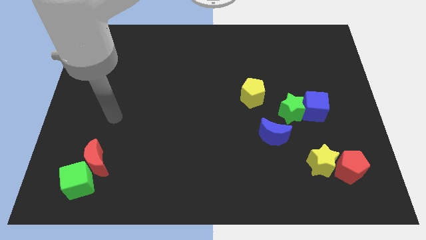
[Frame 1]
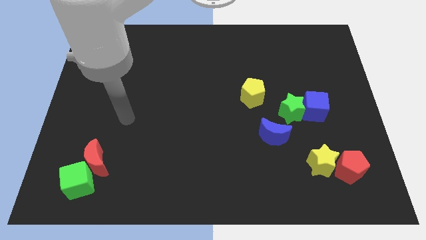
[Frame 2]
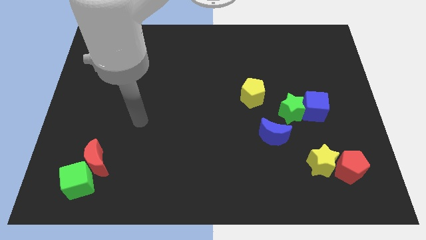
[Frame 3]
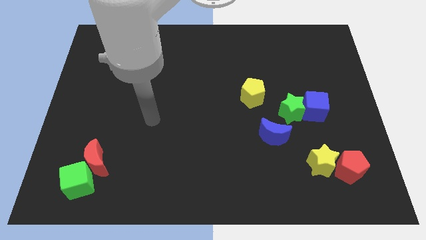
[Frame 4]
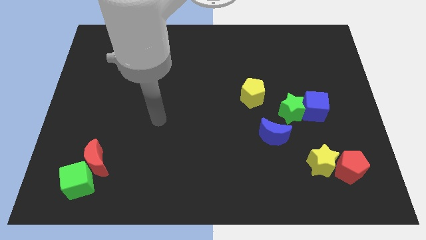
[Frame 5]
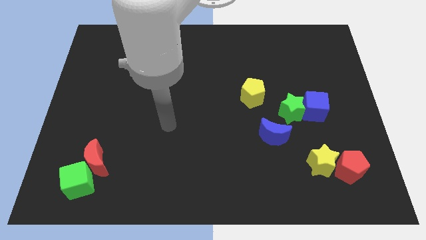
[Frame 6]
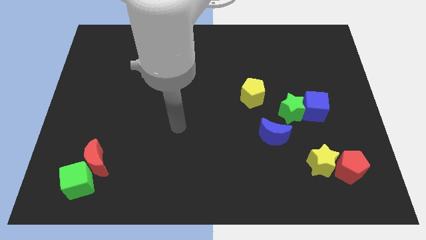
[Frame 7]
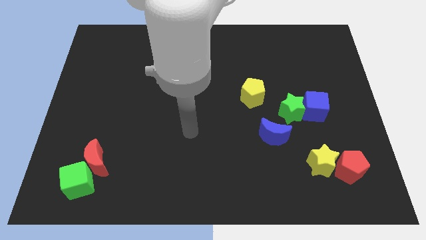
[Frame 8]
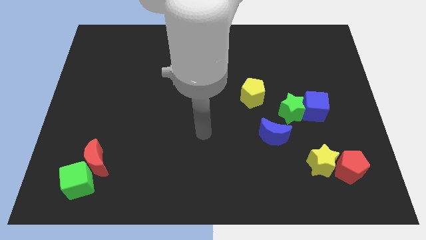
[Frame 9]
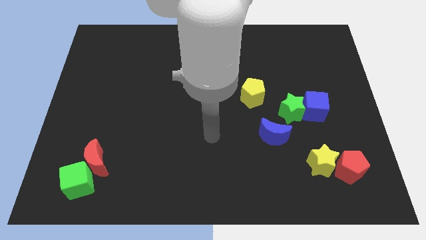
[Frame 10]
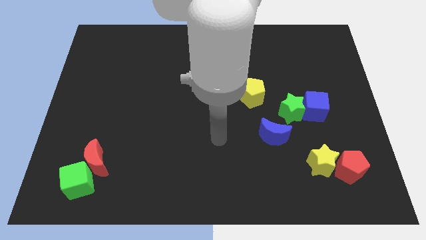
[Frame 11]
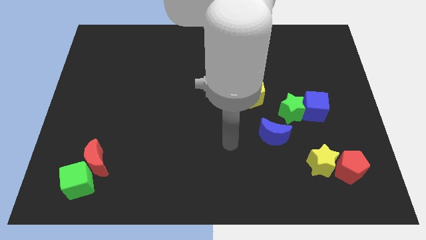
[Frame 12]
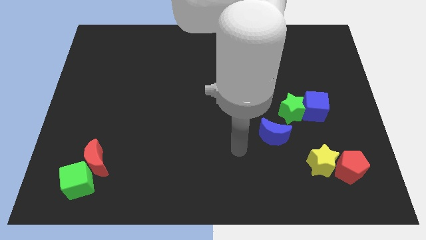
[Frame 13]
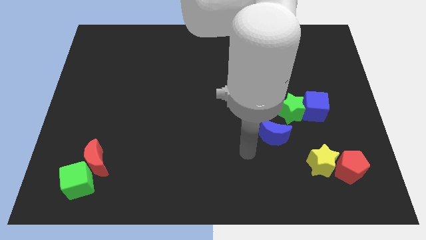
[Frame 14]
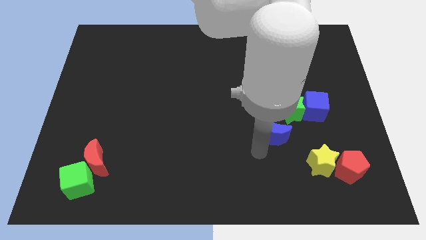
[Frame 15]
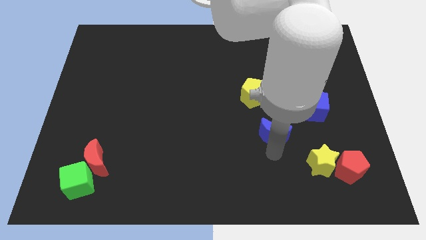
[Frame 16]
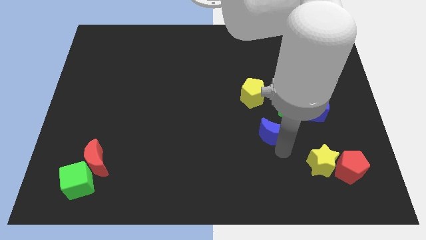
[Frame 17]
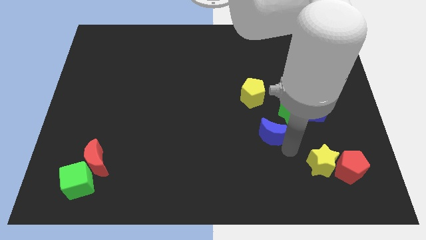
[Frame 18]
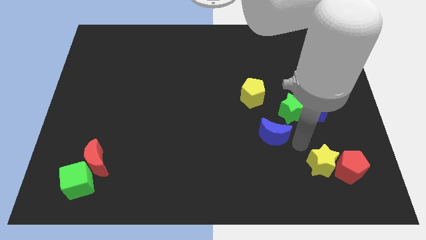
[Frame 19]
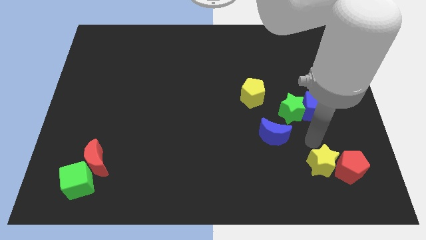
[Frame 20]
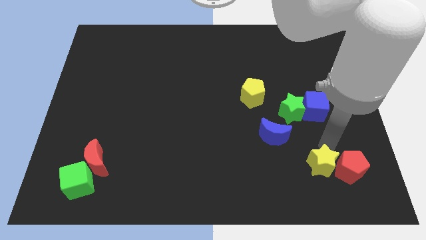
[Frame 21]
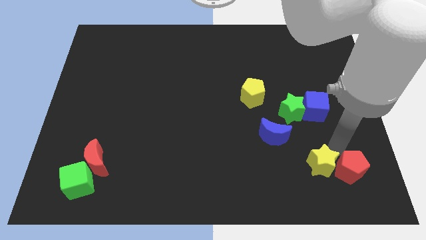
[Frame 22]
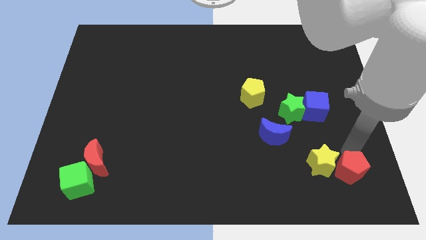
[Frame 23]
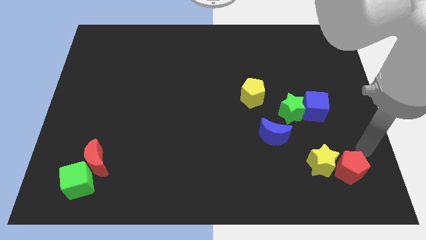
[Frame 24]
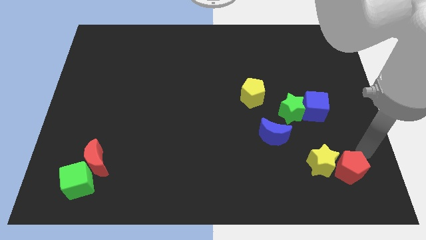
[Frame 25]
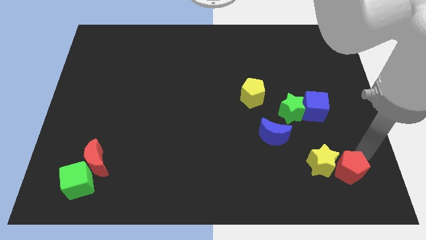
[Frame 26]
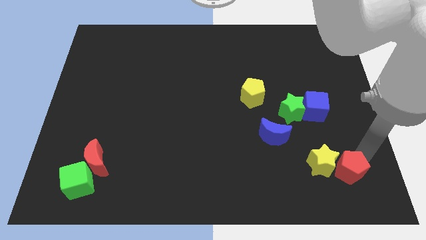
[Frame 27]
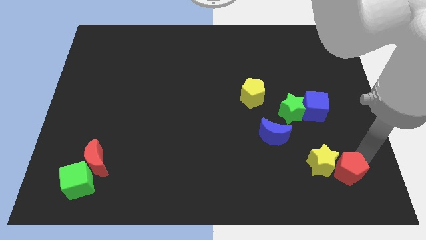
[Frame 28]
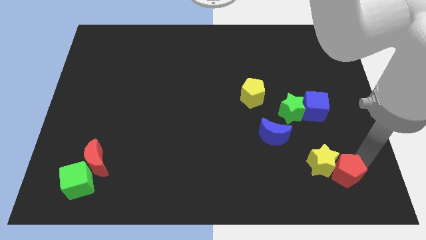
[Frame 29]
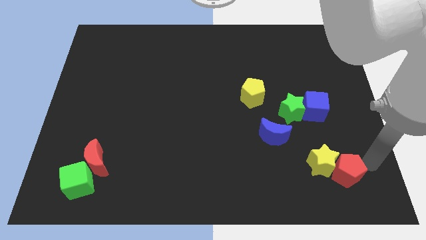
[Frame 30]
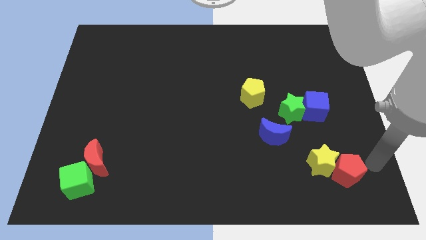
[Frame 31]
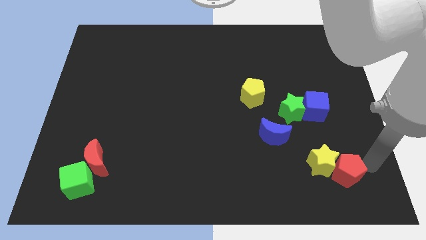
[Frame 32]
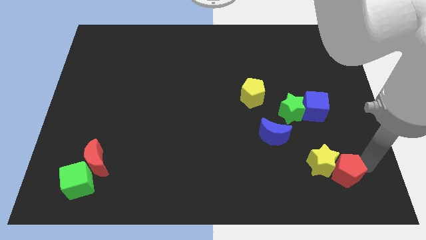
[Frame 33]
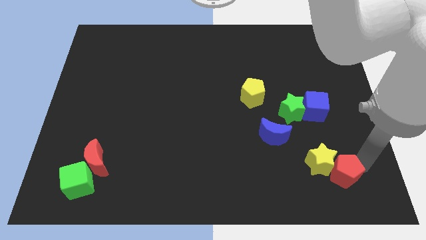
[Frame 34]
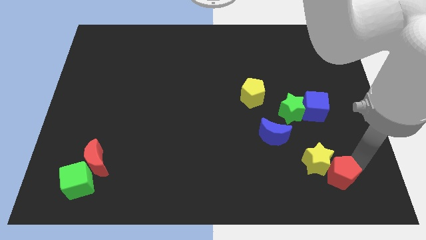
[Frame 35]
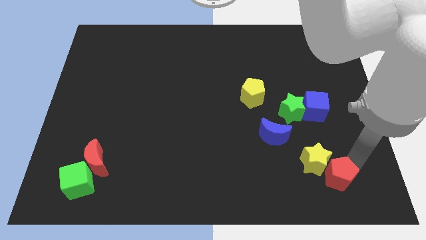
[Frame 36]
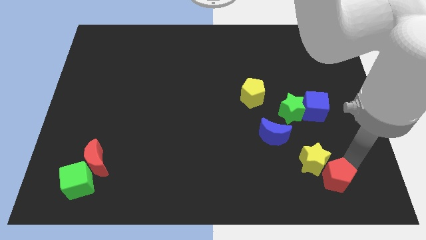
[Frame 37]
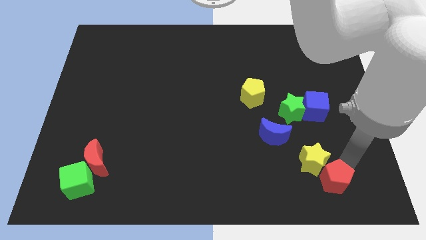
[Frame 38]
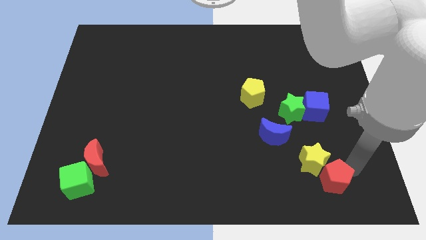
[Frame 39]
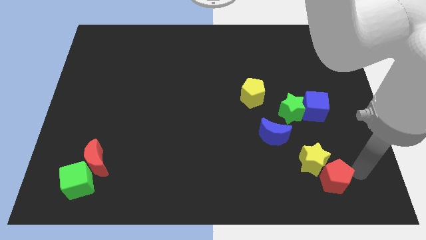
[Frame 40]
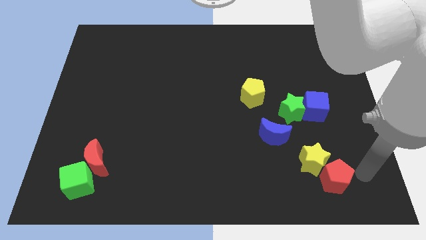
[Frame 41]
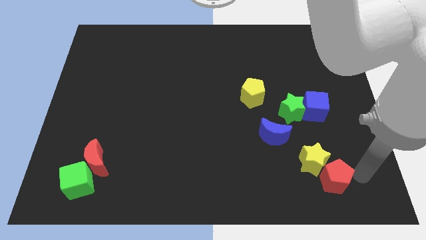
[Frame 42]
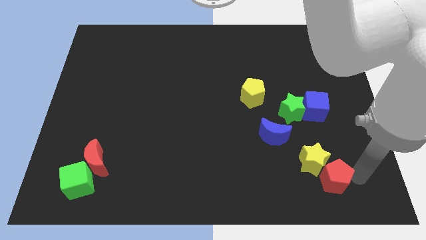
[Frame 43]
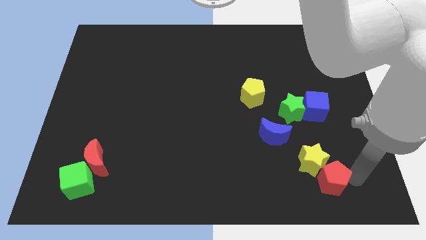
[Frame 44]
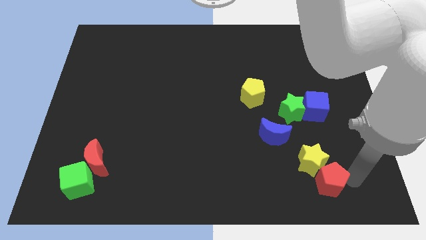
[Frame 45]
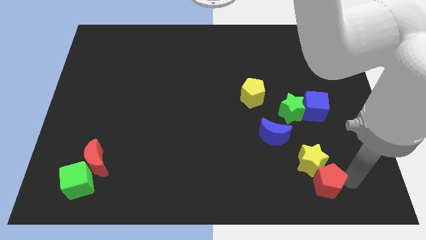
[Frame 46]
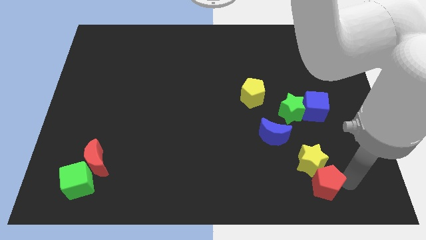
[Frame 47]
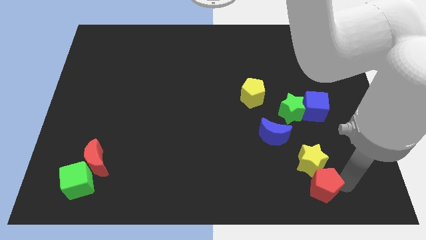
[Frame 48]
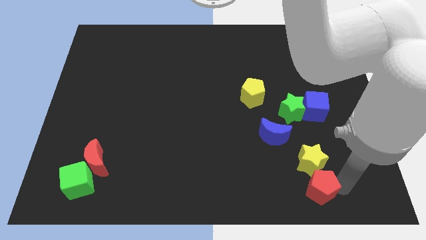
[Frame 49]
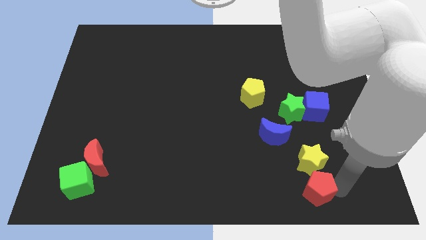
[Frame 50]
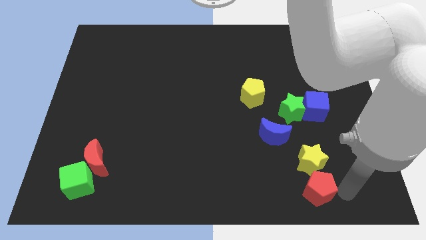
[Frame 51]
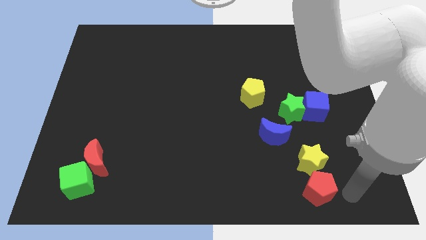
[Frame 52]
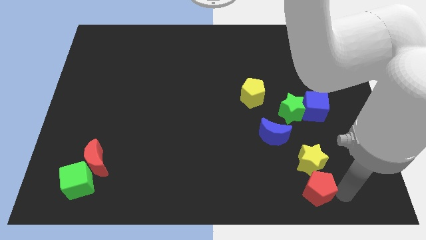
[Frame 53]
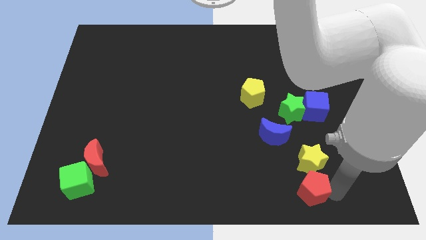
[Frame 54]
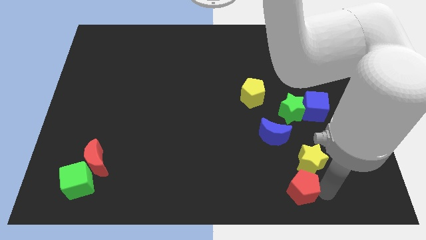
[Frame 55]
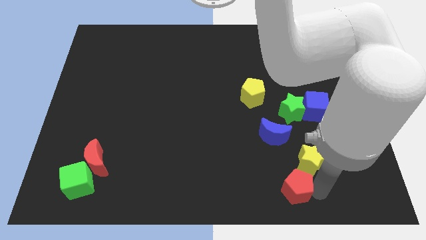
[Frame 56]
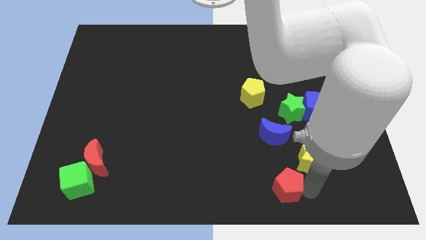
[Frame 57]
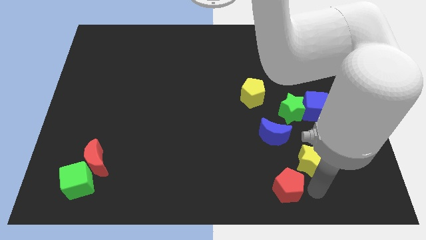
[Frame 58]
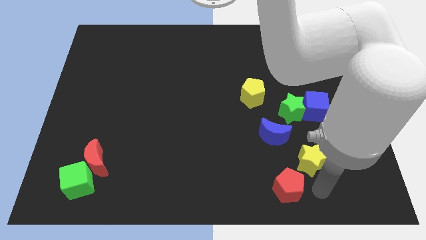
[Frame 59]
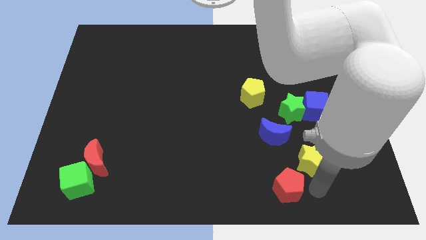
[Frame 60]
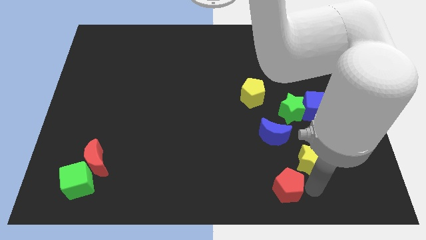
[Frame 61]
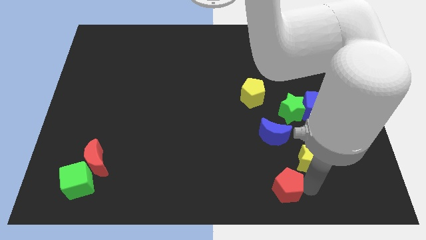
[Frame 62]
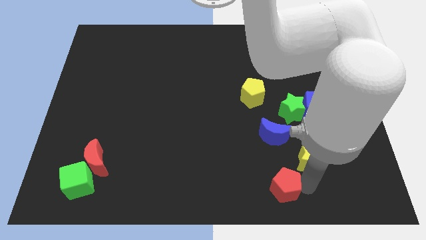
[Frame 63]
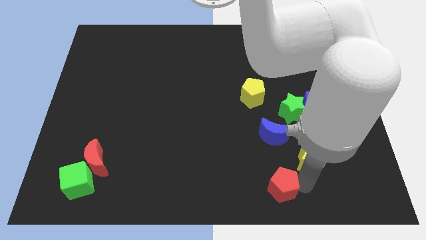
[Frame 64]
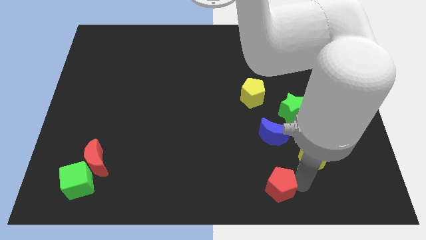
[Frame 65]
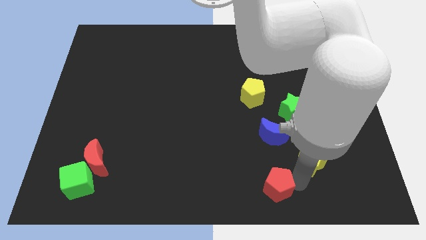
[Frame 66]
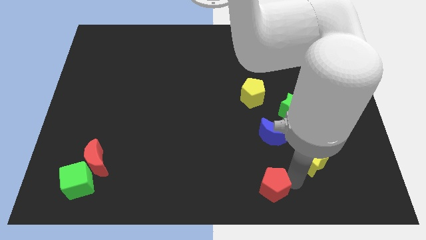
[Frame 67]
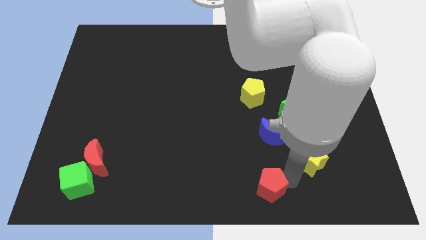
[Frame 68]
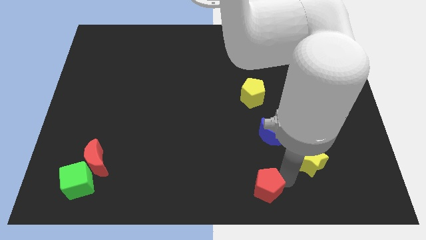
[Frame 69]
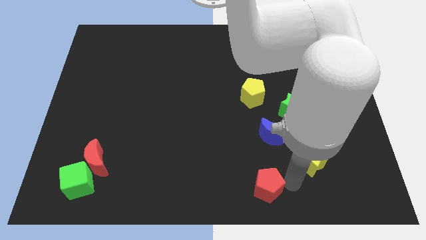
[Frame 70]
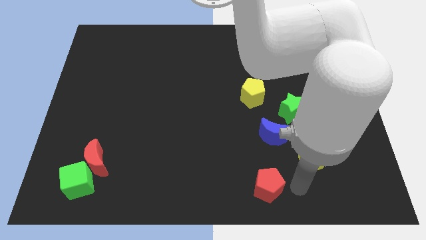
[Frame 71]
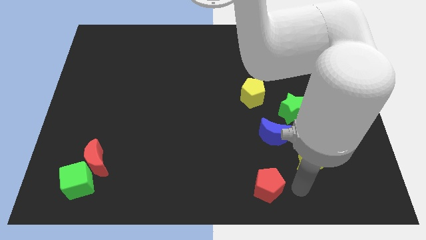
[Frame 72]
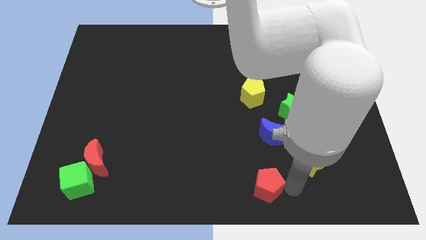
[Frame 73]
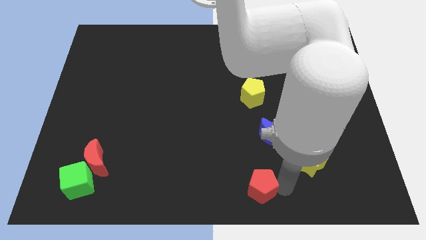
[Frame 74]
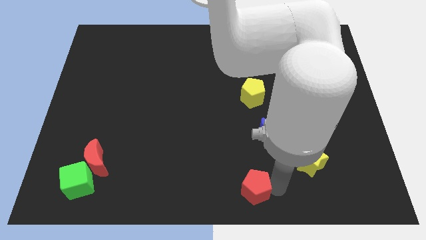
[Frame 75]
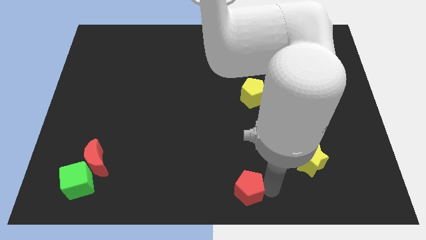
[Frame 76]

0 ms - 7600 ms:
move the red pentagon to the left

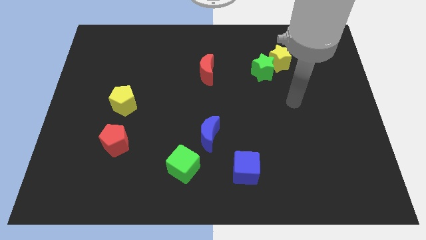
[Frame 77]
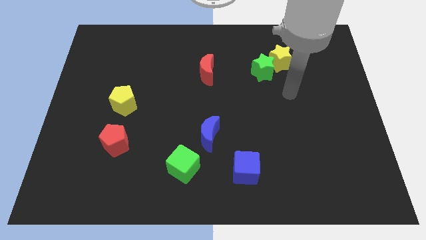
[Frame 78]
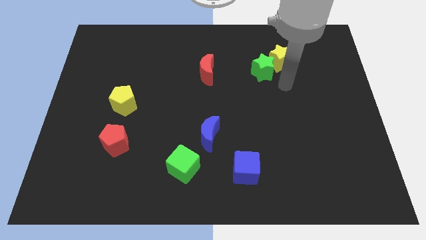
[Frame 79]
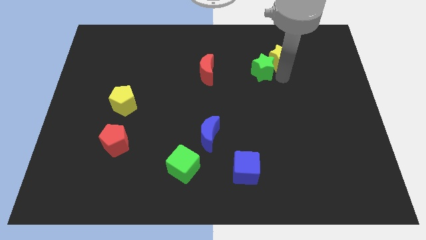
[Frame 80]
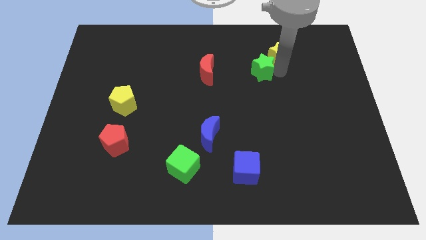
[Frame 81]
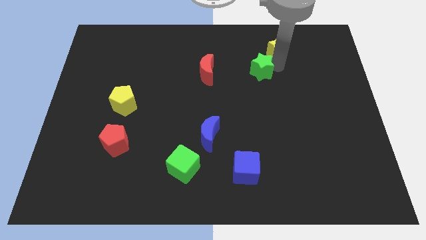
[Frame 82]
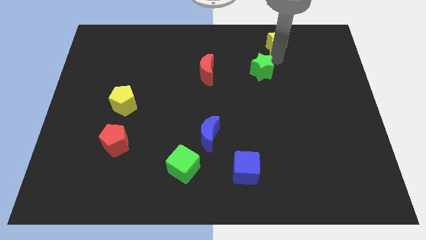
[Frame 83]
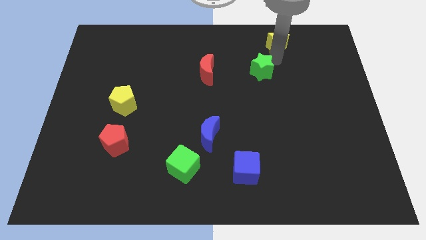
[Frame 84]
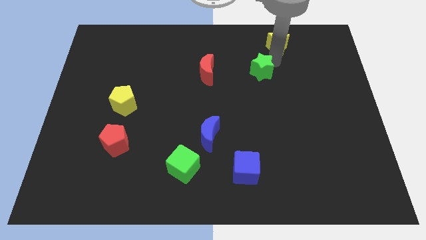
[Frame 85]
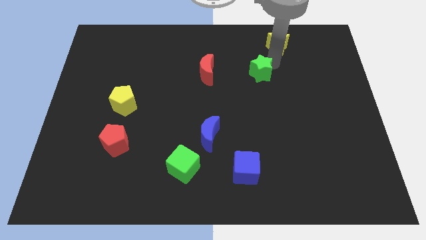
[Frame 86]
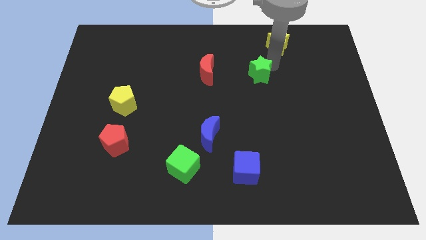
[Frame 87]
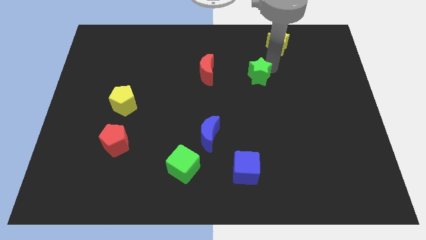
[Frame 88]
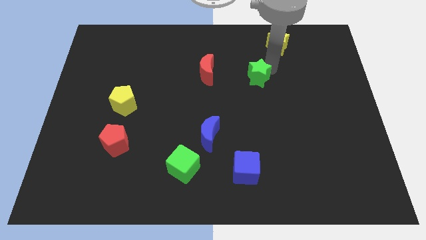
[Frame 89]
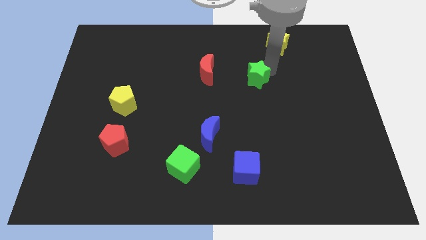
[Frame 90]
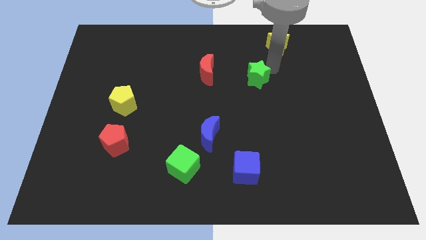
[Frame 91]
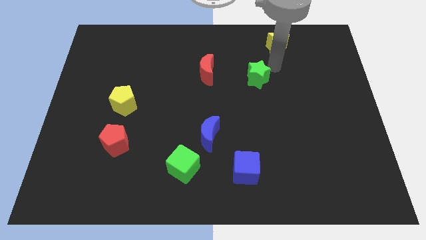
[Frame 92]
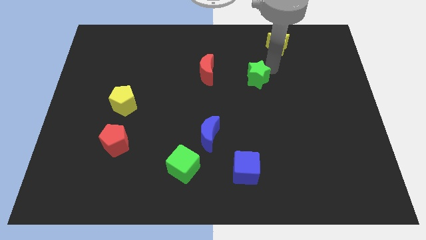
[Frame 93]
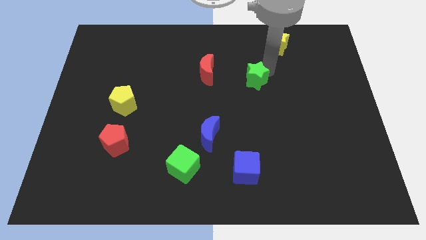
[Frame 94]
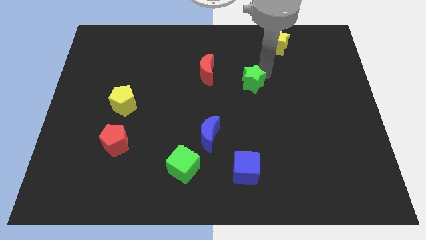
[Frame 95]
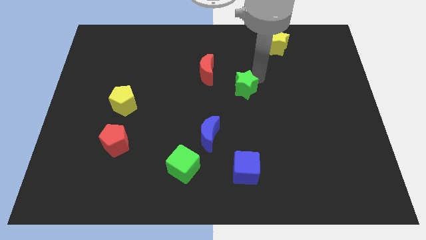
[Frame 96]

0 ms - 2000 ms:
slightly slide the green star down and then to the left
